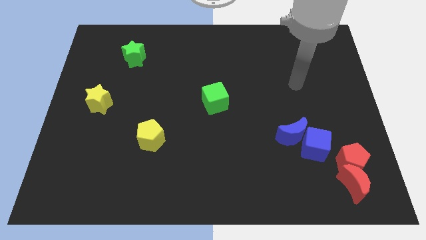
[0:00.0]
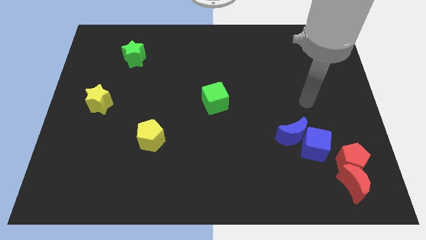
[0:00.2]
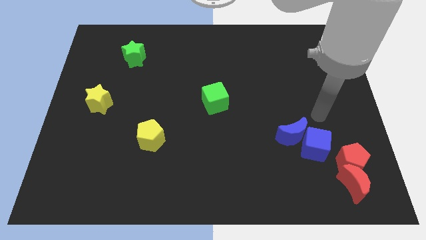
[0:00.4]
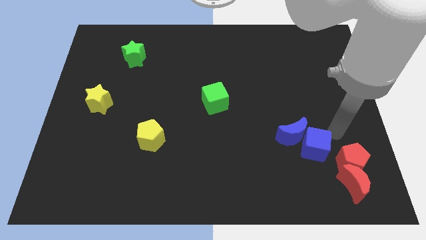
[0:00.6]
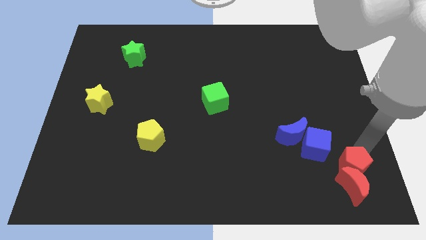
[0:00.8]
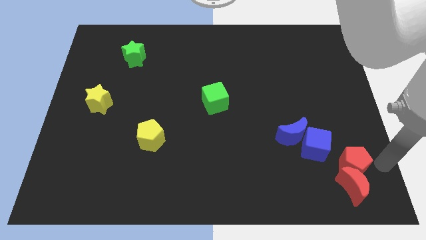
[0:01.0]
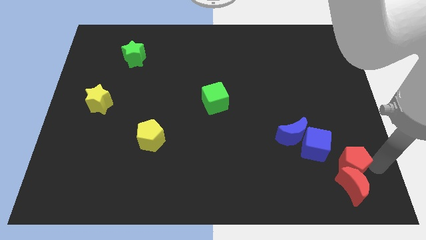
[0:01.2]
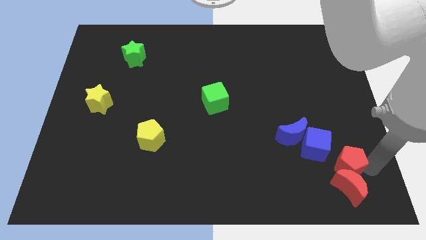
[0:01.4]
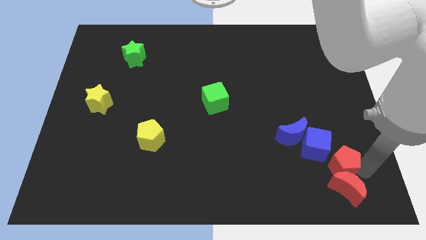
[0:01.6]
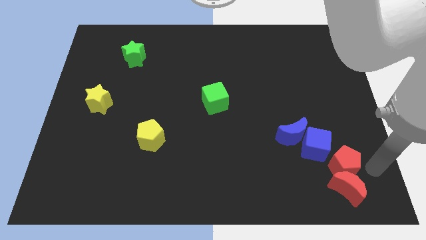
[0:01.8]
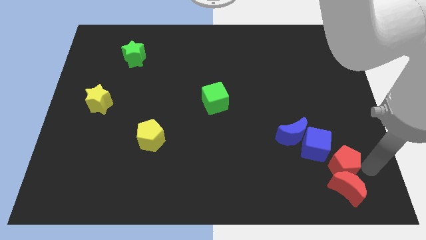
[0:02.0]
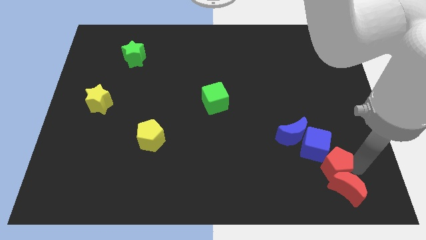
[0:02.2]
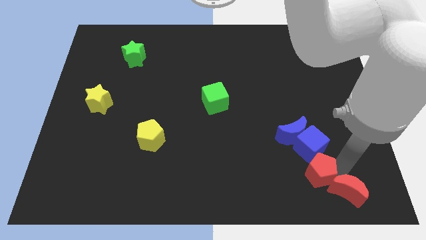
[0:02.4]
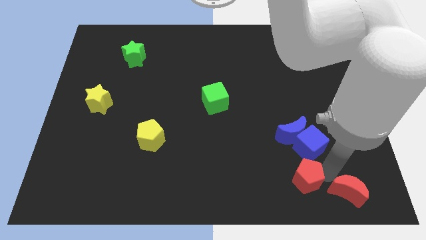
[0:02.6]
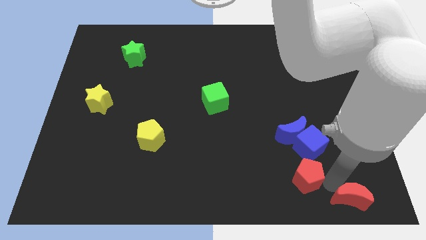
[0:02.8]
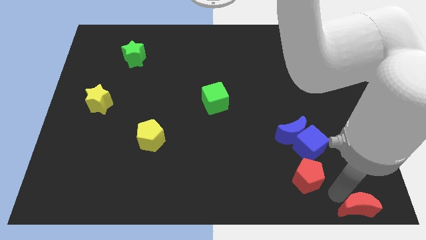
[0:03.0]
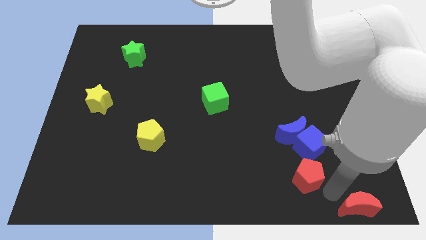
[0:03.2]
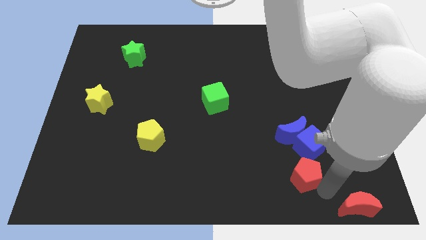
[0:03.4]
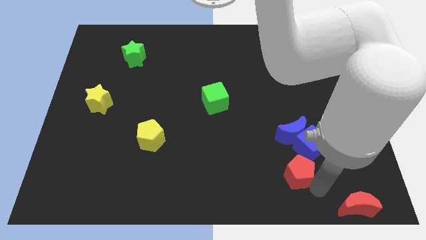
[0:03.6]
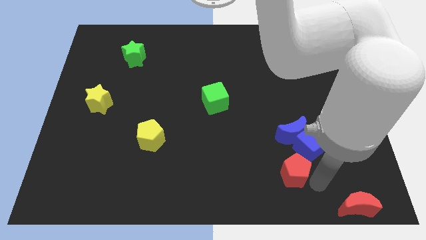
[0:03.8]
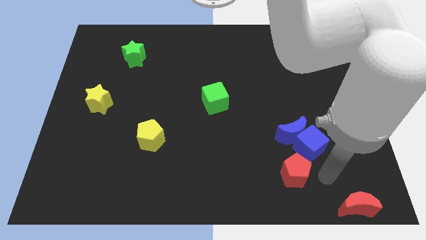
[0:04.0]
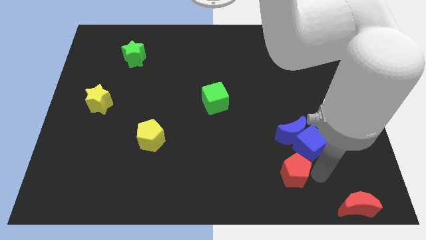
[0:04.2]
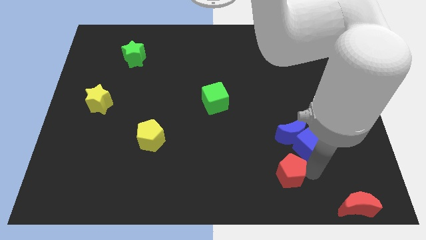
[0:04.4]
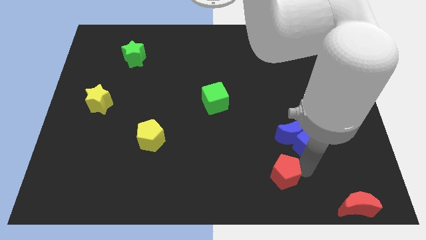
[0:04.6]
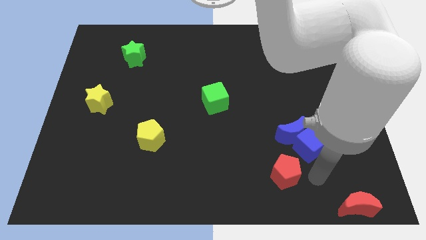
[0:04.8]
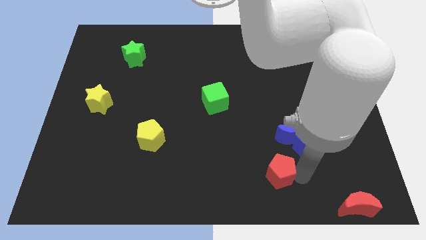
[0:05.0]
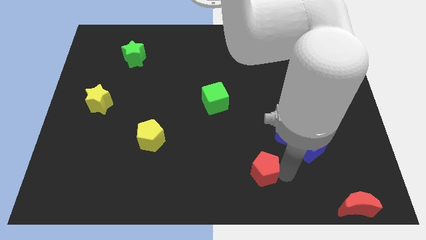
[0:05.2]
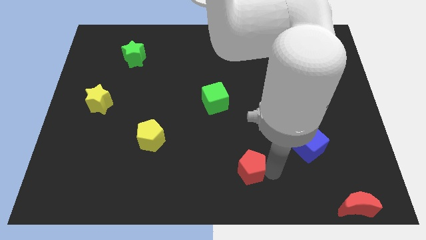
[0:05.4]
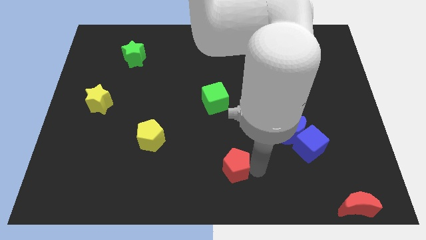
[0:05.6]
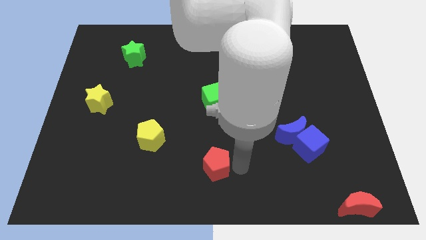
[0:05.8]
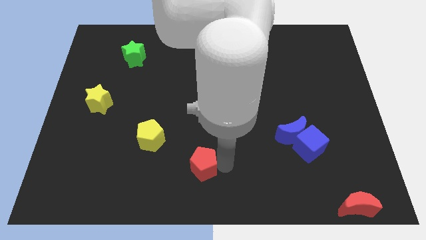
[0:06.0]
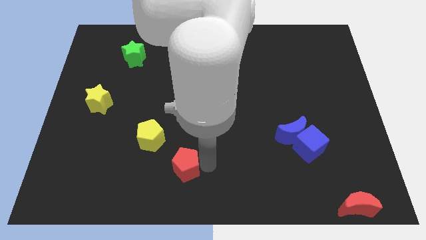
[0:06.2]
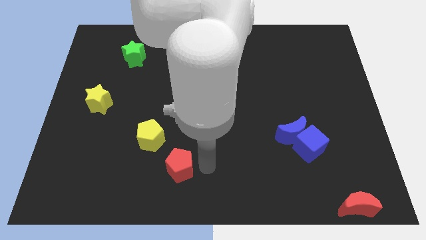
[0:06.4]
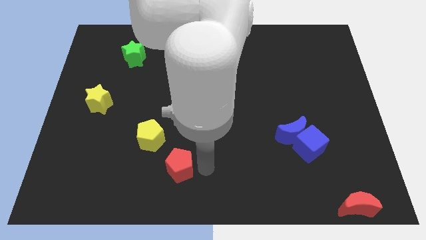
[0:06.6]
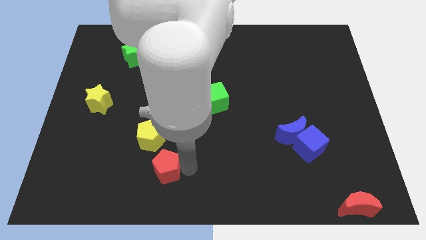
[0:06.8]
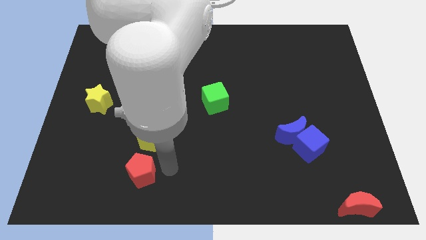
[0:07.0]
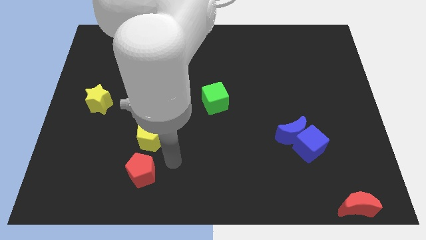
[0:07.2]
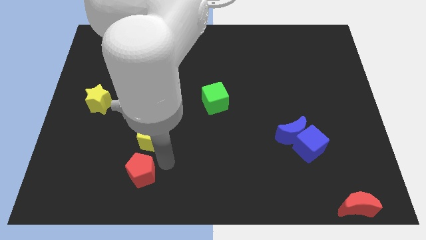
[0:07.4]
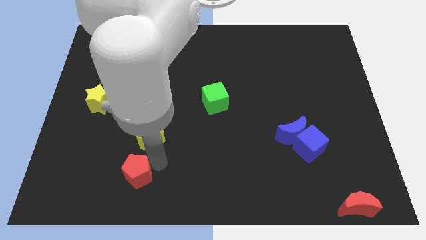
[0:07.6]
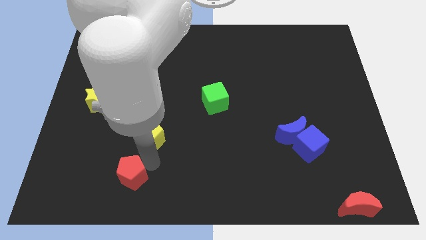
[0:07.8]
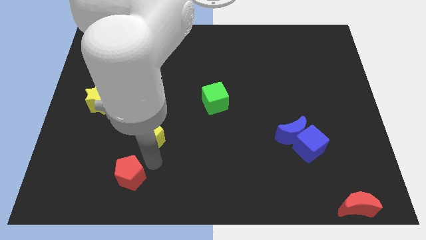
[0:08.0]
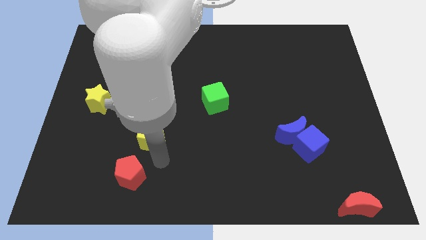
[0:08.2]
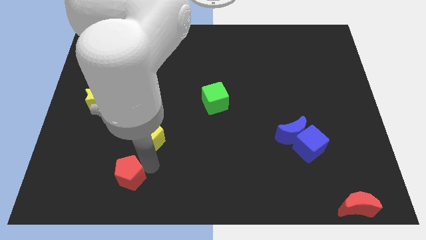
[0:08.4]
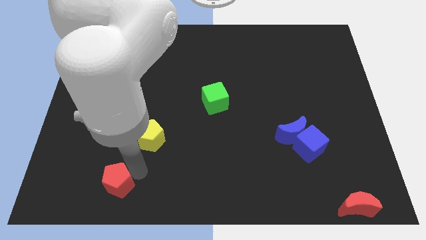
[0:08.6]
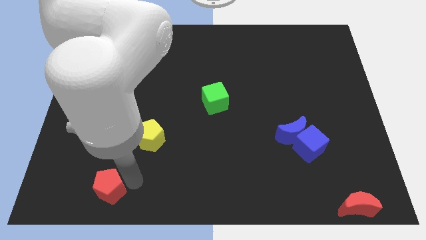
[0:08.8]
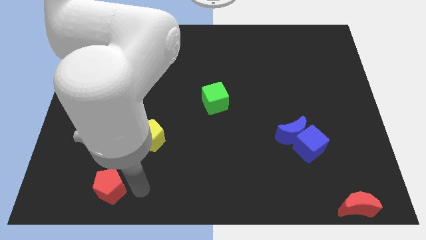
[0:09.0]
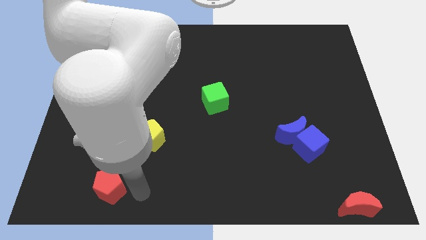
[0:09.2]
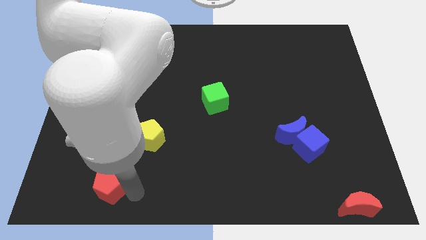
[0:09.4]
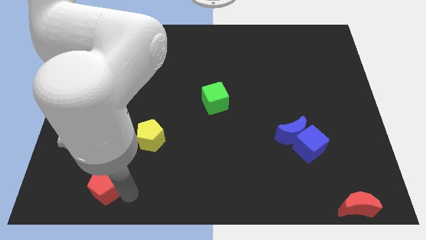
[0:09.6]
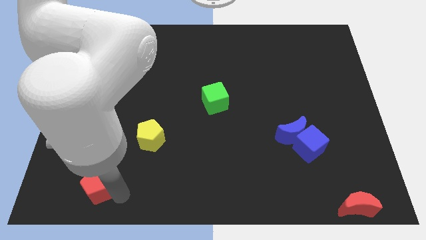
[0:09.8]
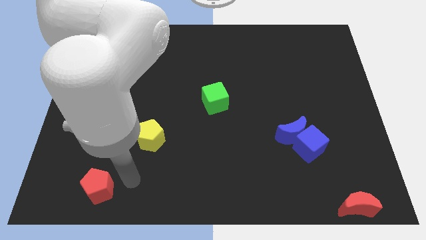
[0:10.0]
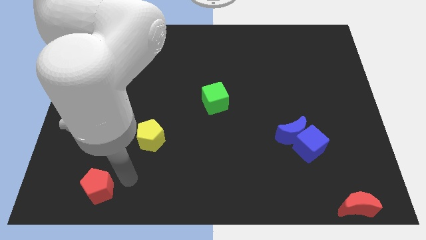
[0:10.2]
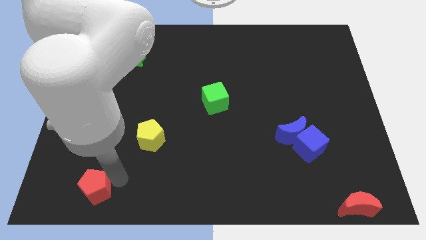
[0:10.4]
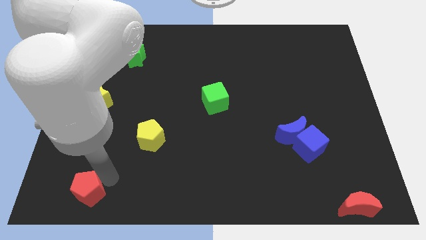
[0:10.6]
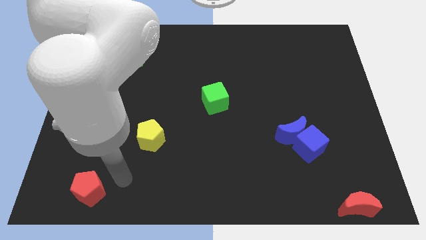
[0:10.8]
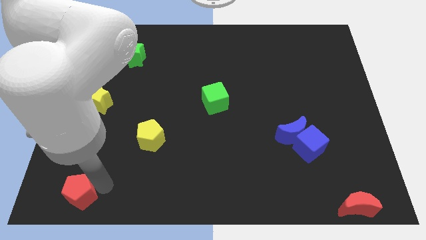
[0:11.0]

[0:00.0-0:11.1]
put the red pentagon to the lower left corner

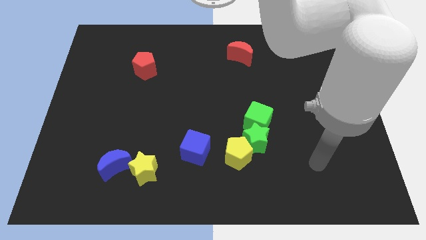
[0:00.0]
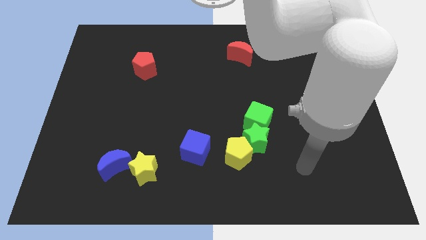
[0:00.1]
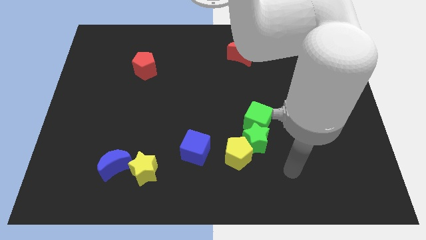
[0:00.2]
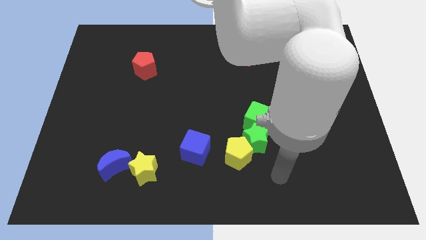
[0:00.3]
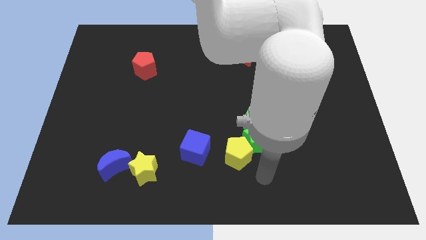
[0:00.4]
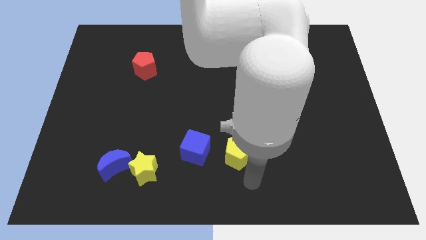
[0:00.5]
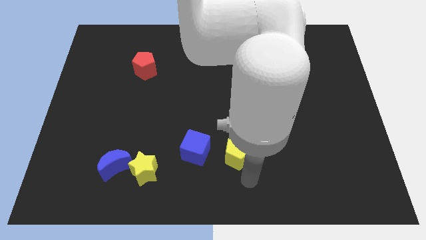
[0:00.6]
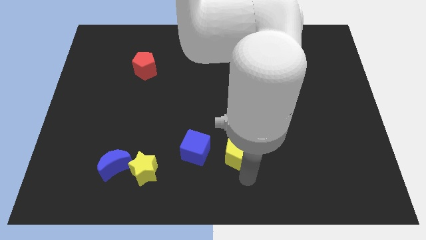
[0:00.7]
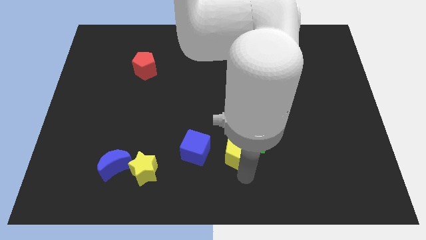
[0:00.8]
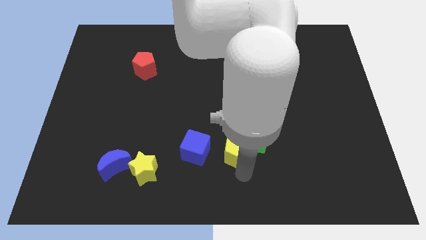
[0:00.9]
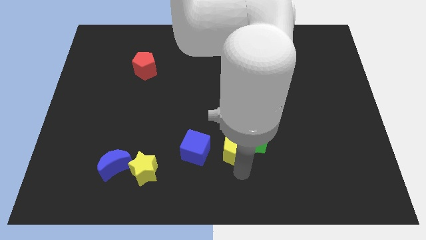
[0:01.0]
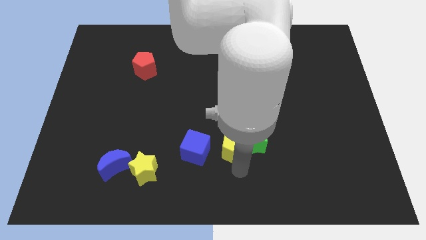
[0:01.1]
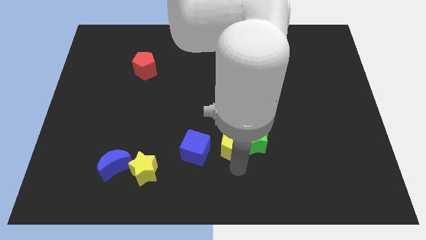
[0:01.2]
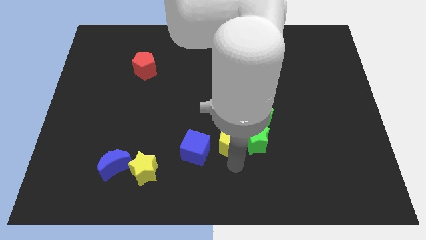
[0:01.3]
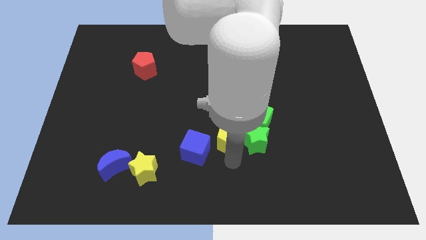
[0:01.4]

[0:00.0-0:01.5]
move the yellow pentagon to the middle of the board
